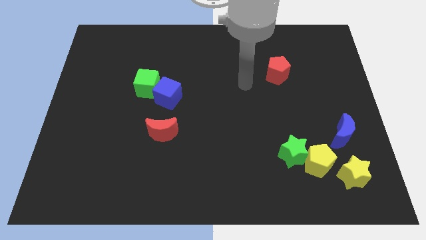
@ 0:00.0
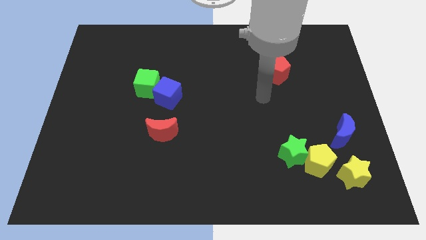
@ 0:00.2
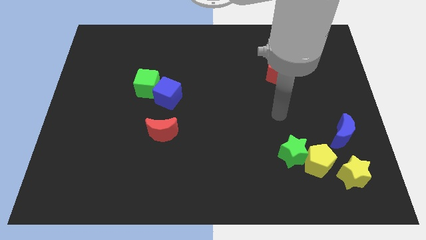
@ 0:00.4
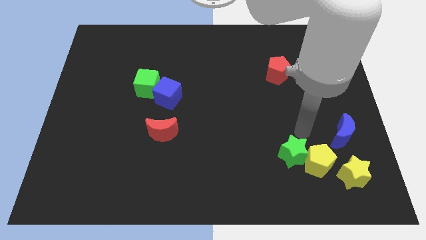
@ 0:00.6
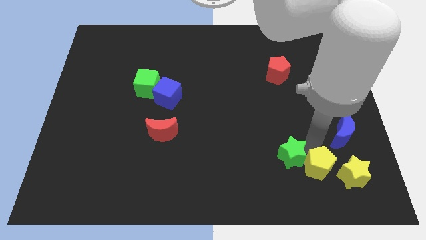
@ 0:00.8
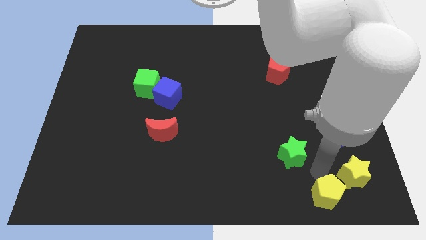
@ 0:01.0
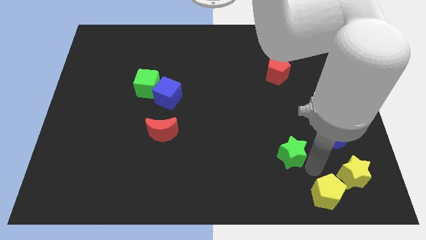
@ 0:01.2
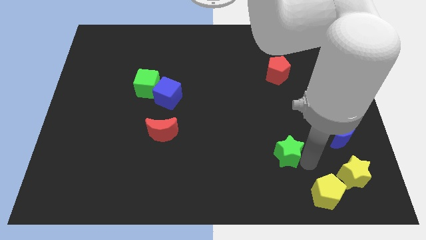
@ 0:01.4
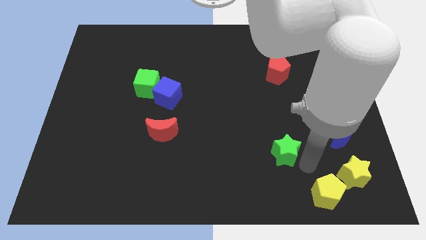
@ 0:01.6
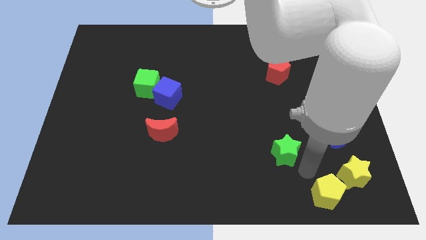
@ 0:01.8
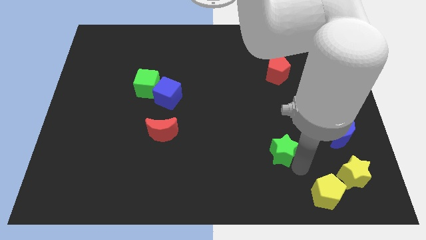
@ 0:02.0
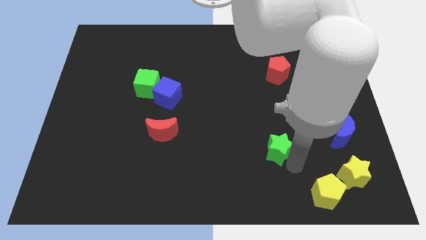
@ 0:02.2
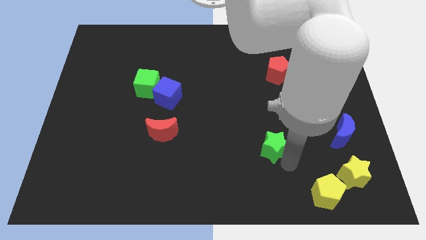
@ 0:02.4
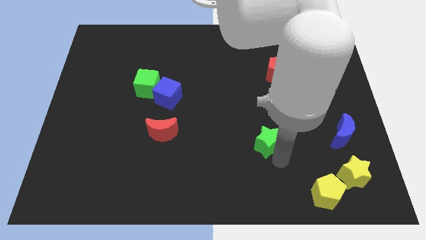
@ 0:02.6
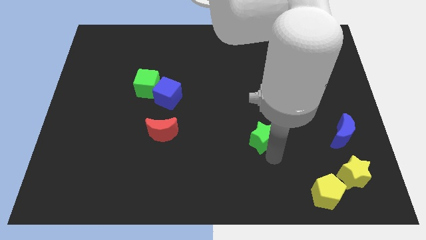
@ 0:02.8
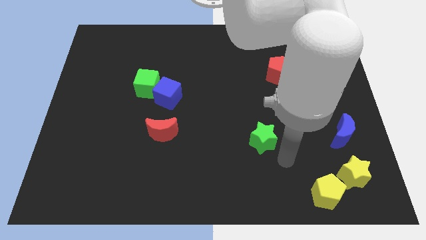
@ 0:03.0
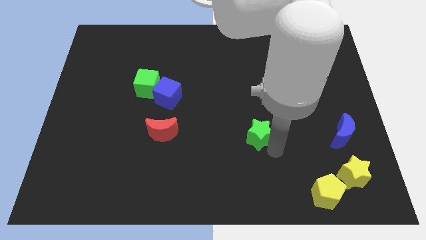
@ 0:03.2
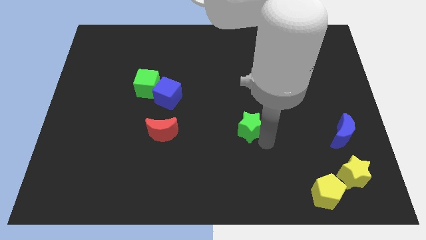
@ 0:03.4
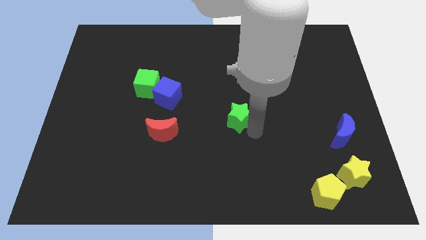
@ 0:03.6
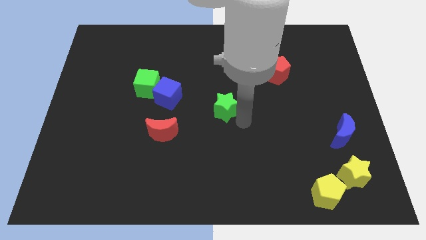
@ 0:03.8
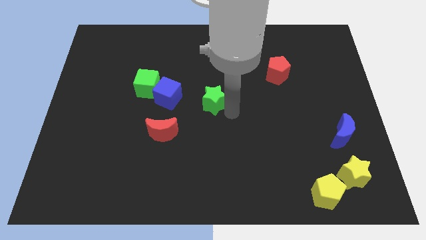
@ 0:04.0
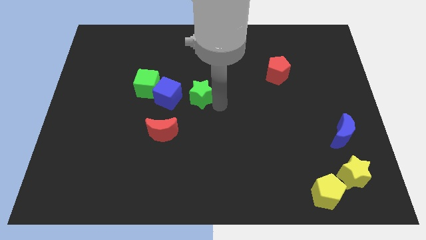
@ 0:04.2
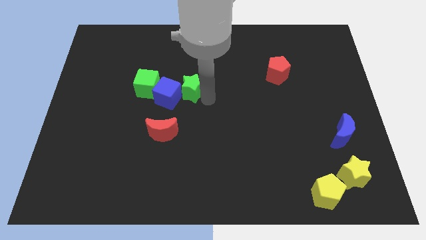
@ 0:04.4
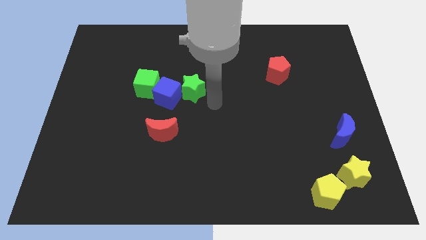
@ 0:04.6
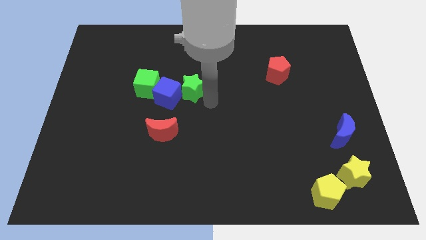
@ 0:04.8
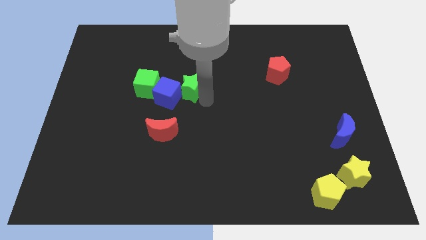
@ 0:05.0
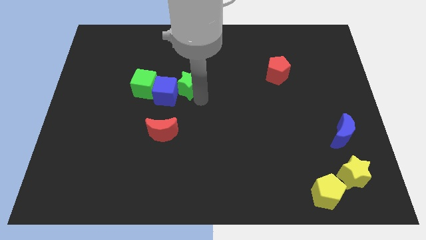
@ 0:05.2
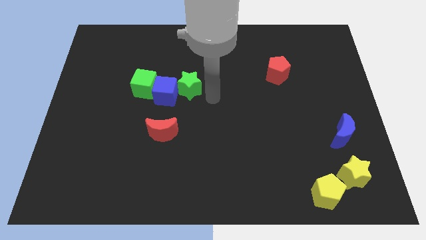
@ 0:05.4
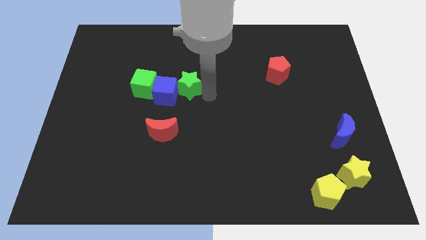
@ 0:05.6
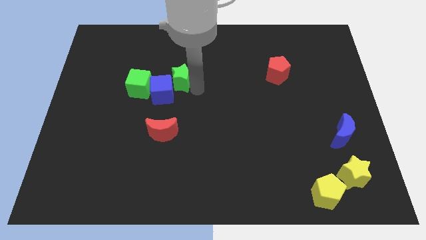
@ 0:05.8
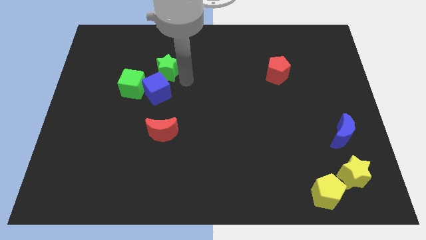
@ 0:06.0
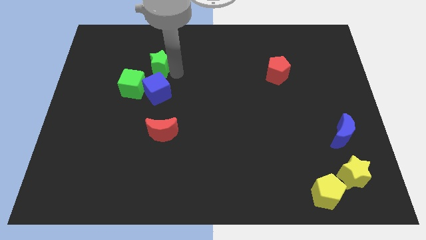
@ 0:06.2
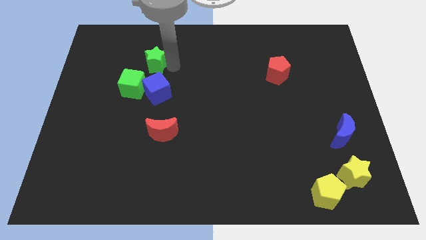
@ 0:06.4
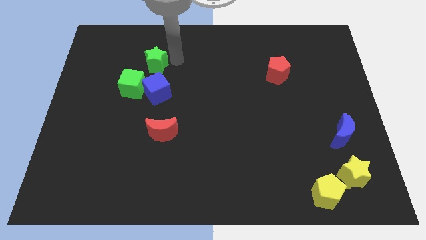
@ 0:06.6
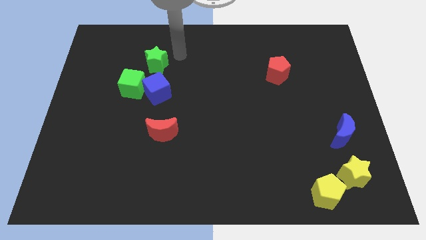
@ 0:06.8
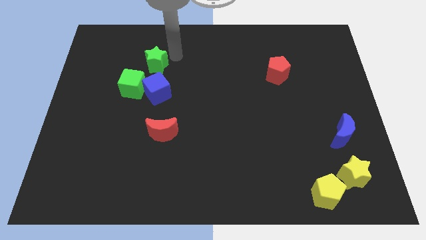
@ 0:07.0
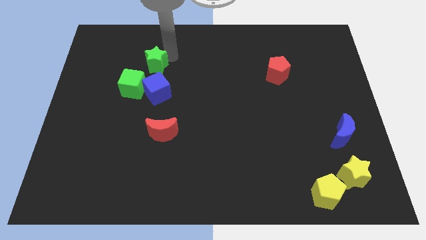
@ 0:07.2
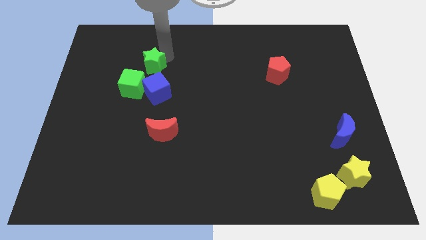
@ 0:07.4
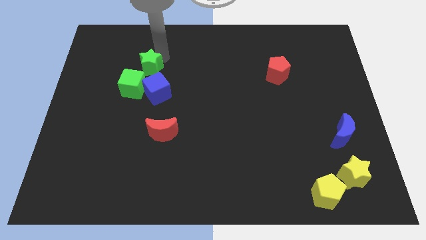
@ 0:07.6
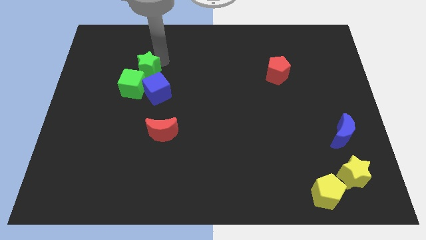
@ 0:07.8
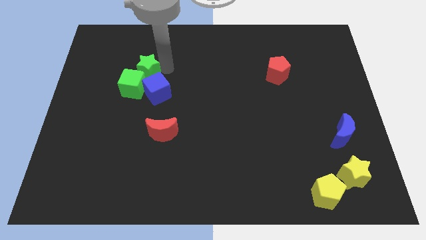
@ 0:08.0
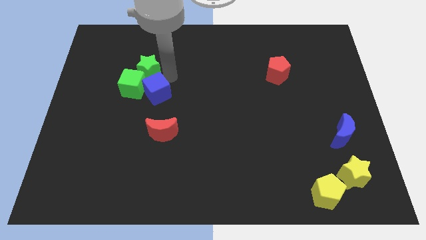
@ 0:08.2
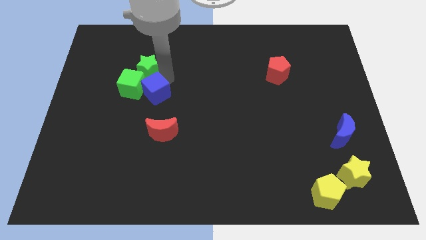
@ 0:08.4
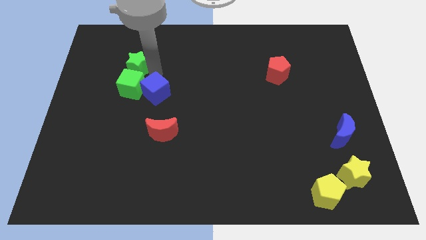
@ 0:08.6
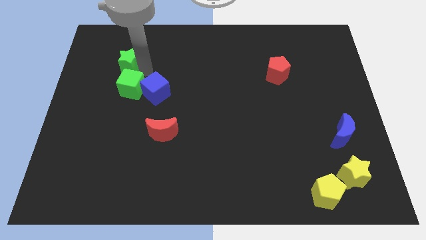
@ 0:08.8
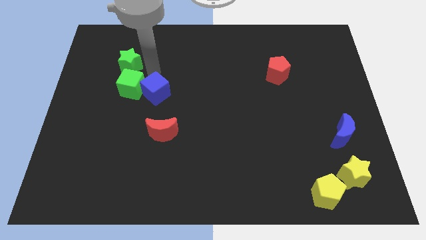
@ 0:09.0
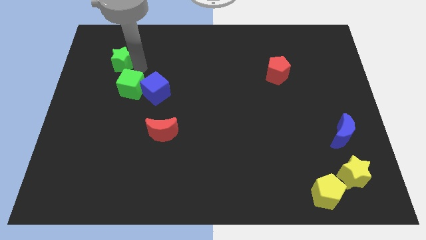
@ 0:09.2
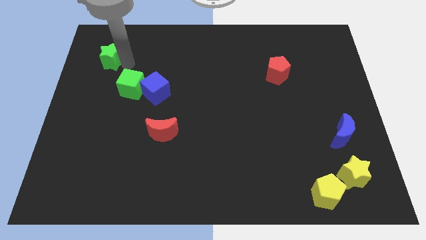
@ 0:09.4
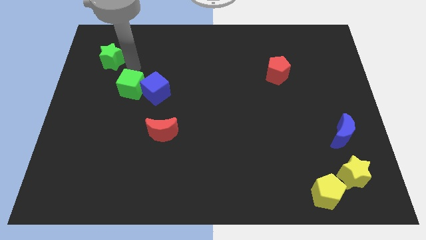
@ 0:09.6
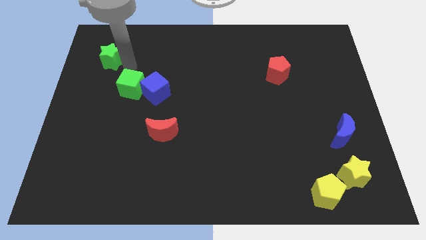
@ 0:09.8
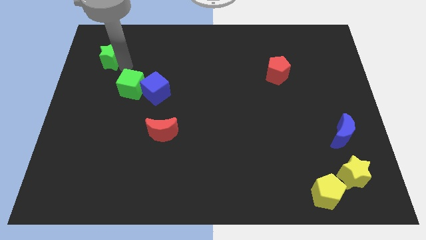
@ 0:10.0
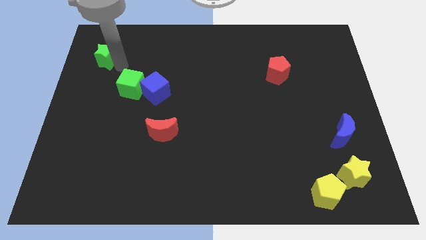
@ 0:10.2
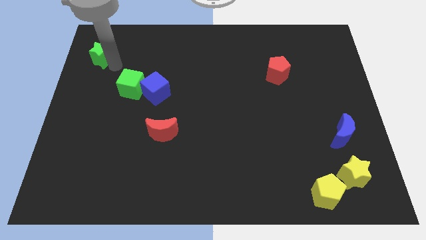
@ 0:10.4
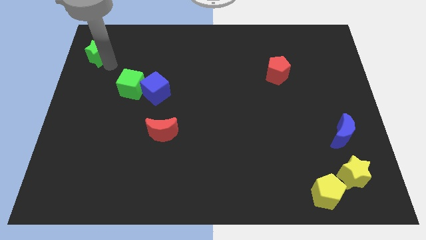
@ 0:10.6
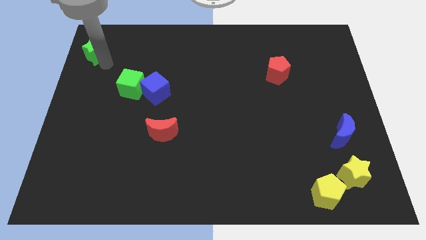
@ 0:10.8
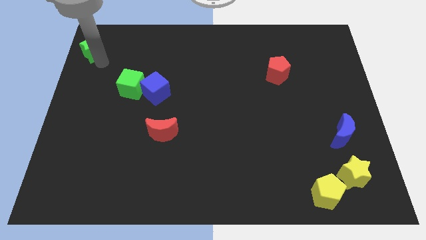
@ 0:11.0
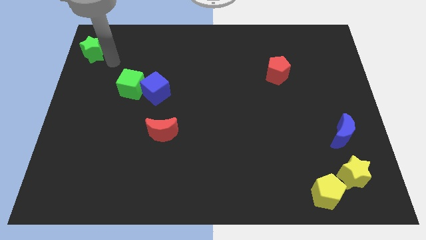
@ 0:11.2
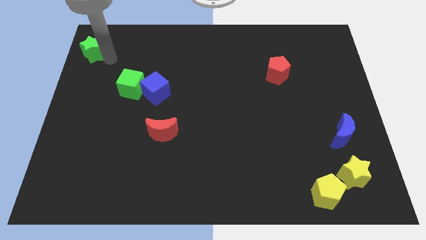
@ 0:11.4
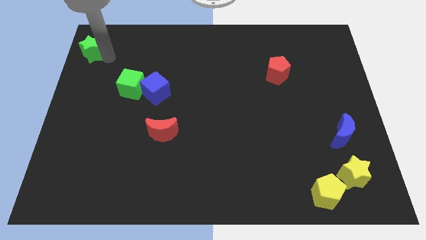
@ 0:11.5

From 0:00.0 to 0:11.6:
slide the green star to the top left of the board
